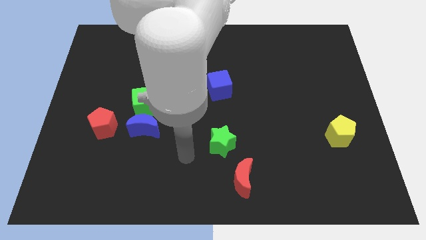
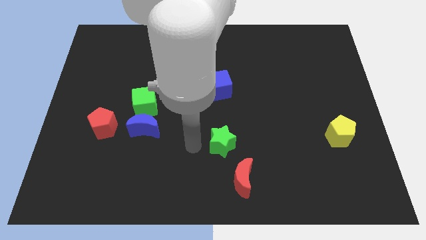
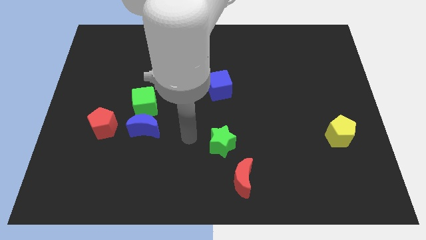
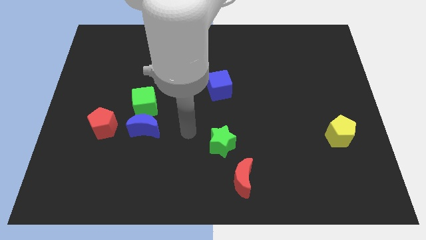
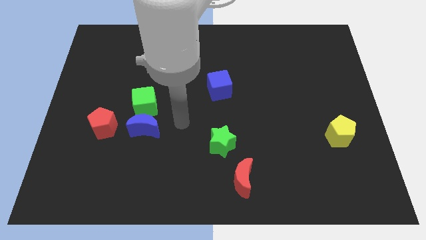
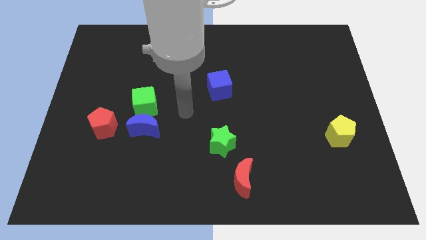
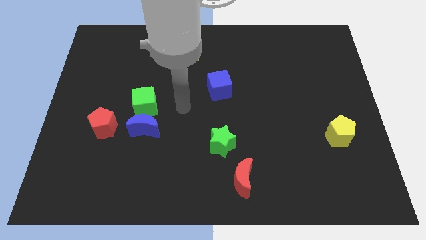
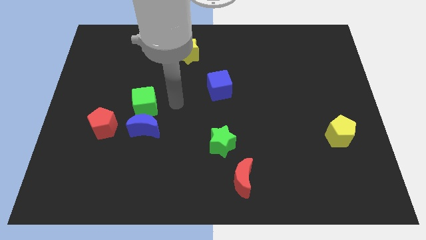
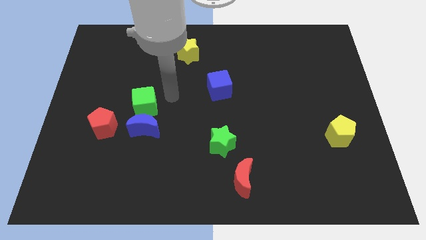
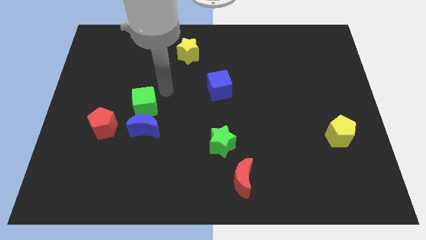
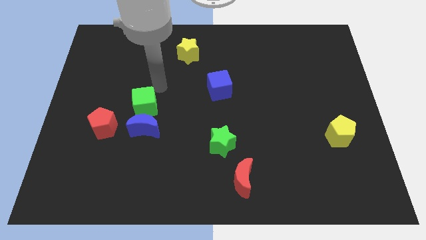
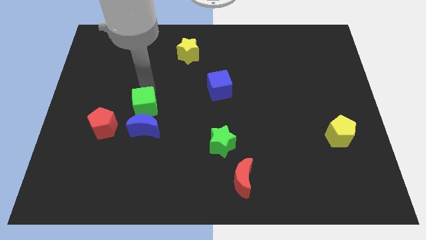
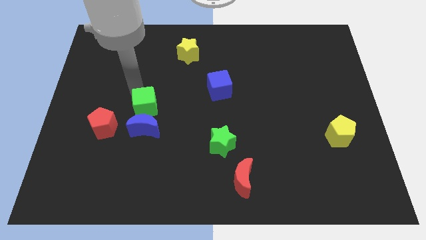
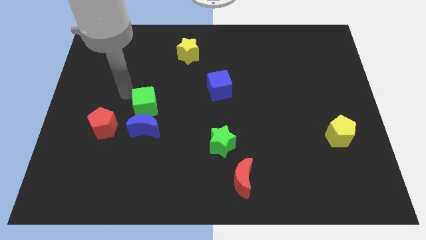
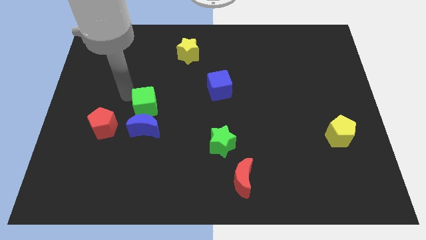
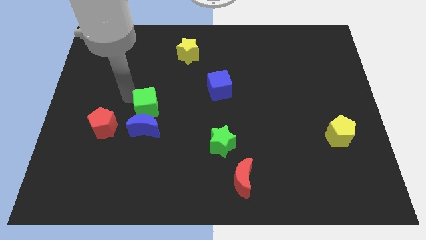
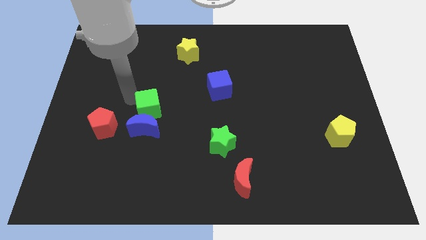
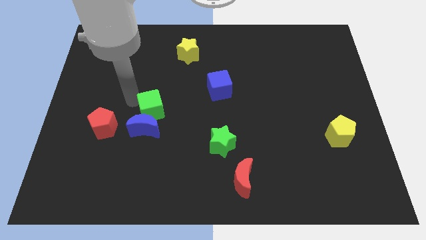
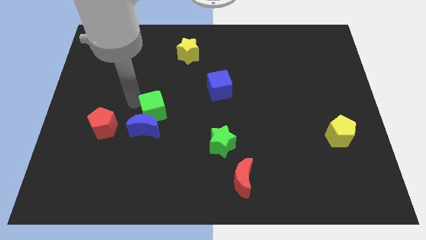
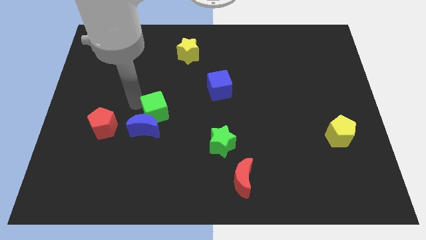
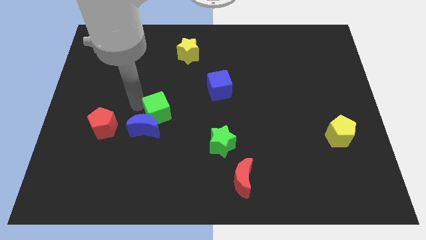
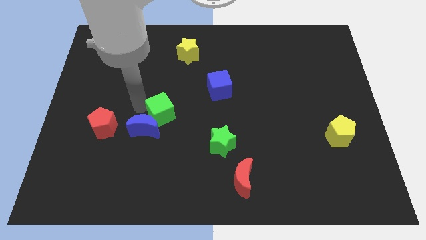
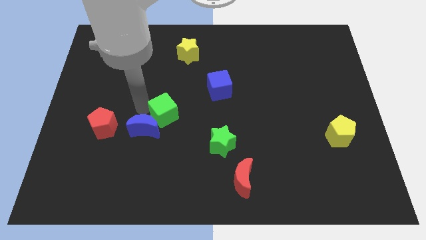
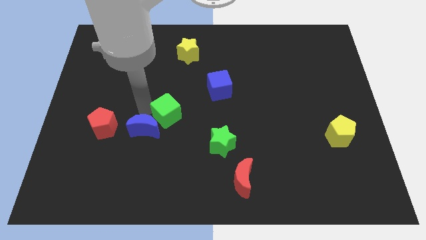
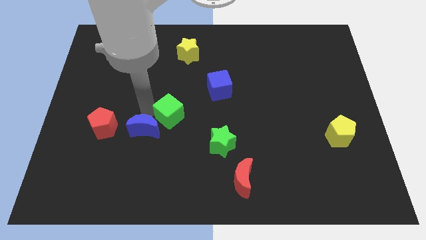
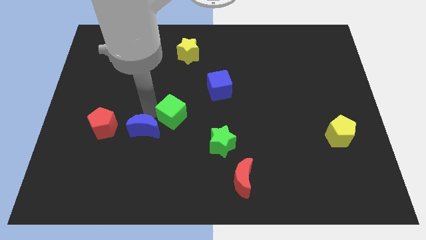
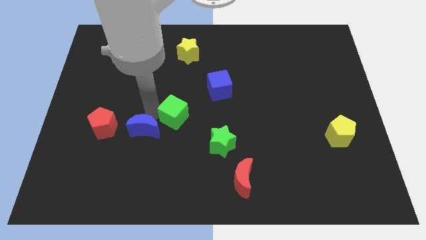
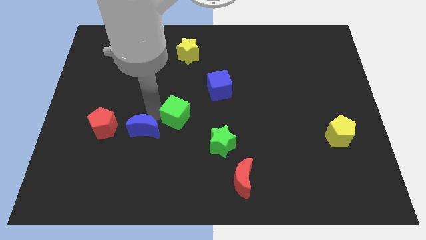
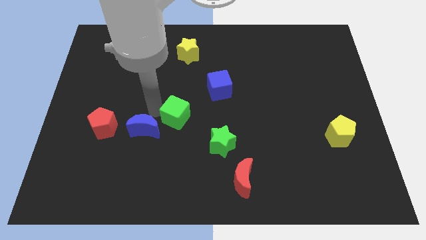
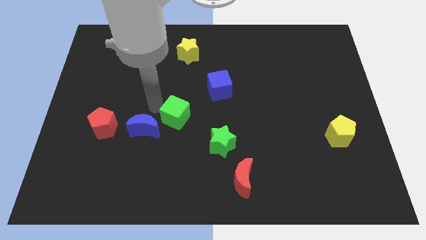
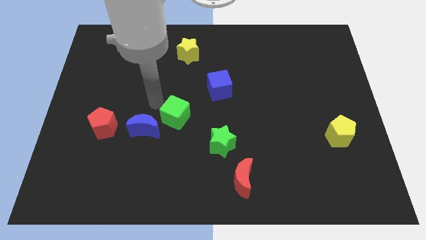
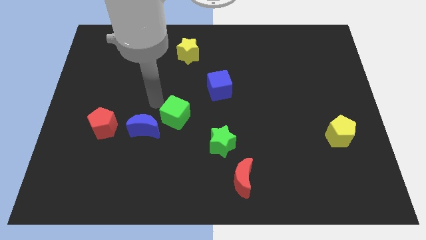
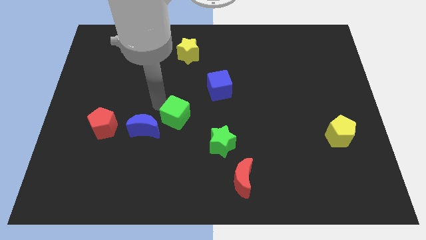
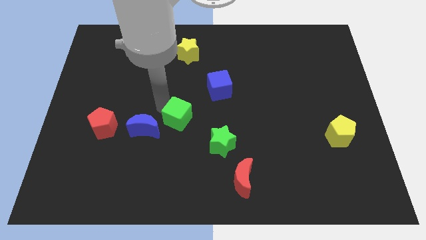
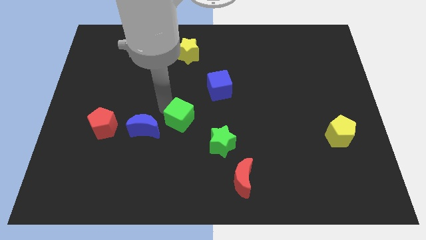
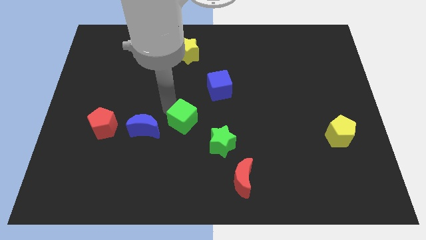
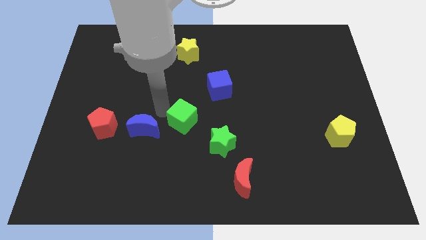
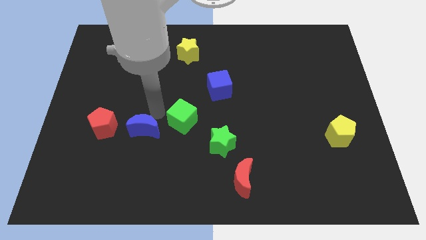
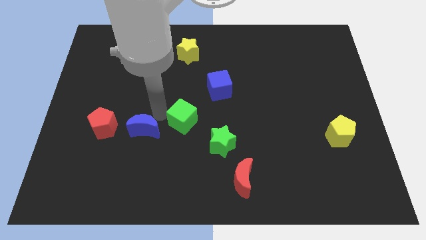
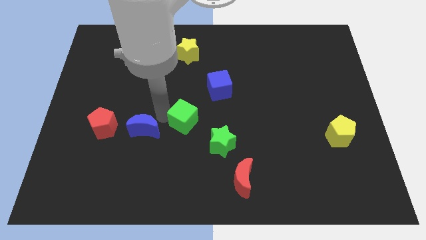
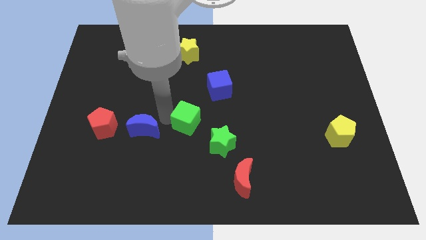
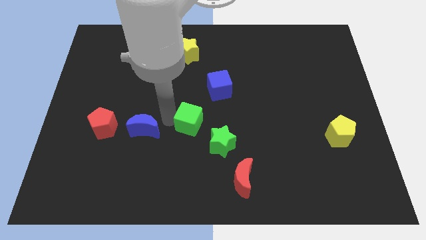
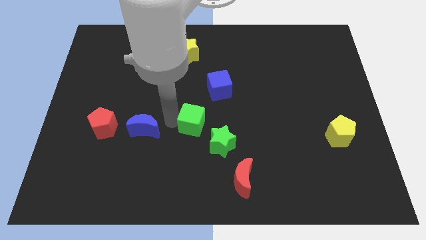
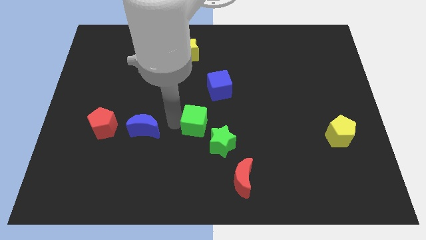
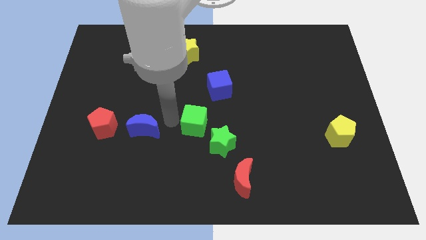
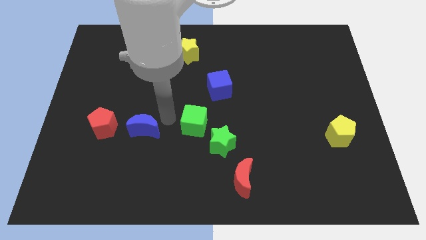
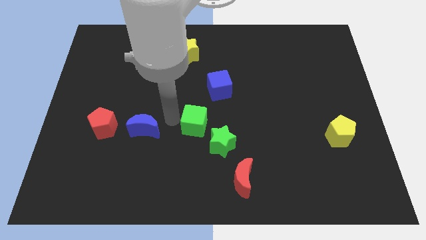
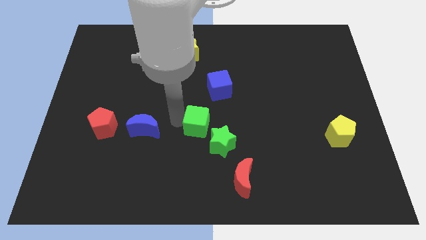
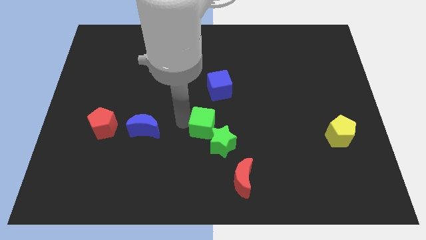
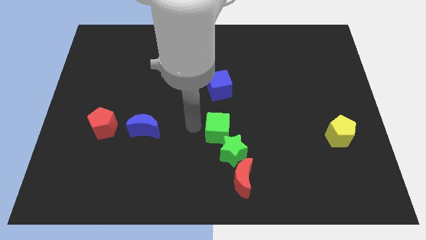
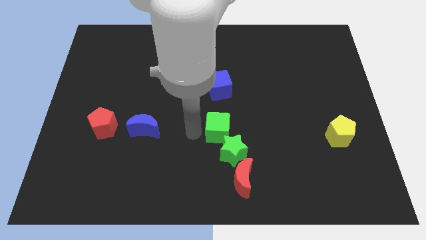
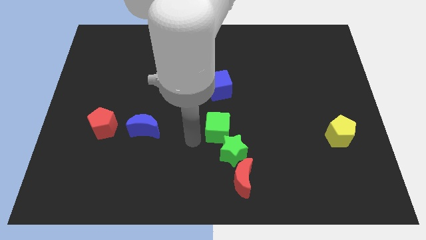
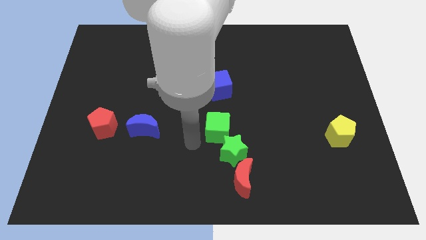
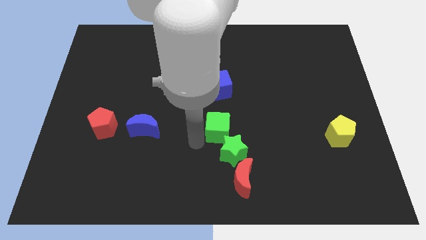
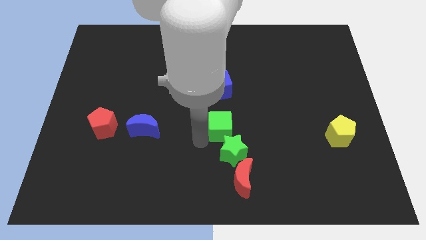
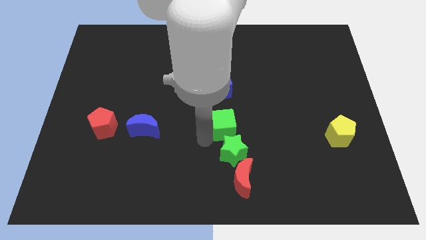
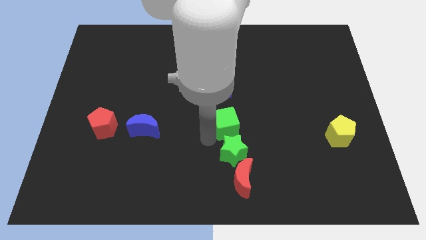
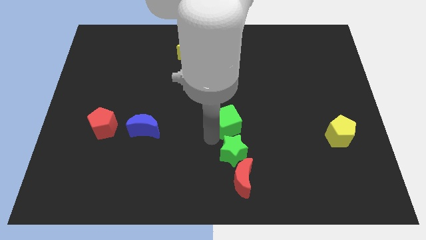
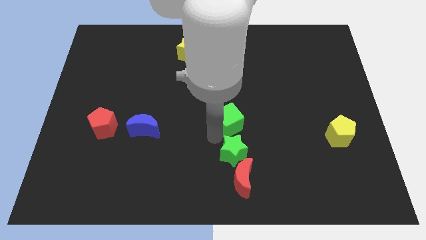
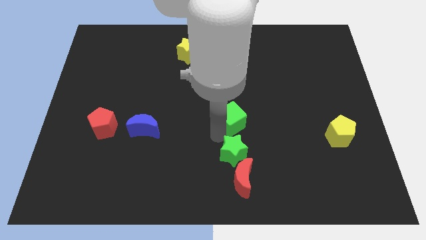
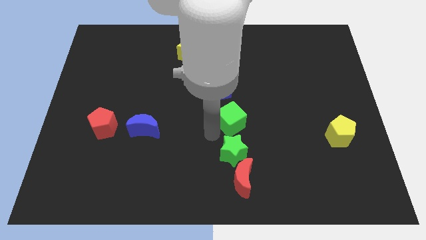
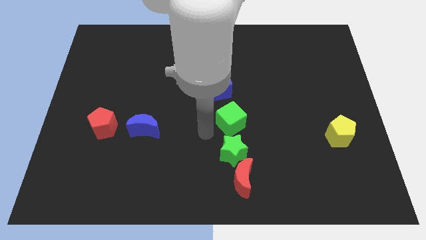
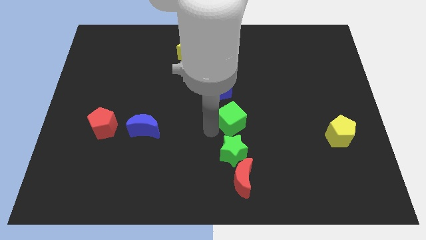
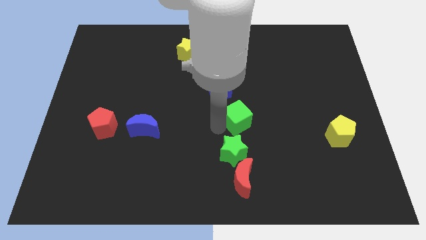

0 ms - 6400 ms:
move the green cube right

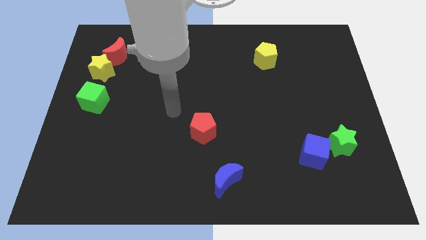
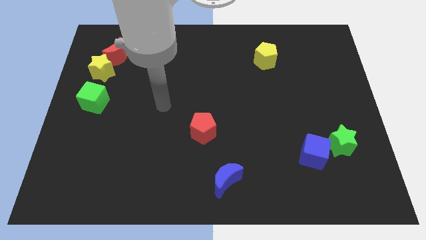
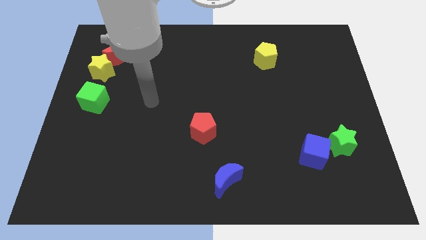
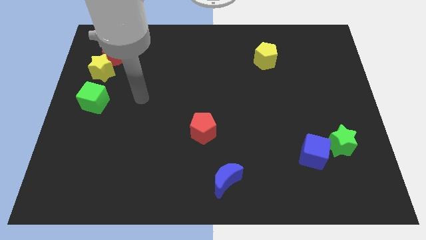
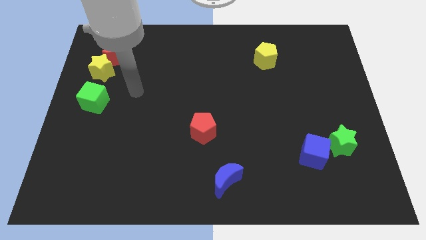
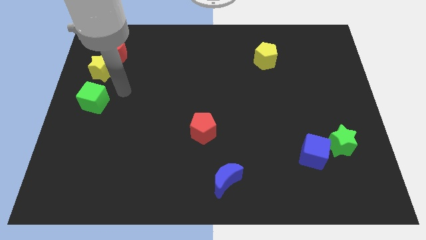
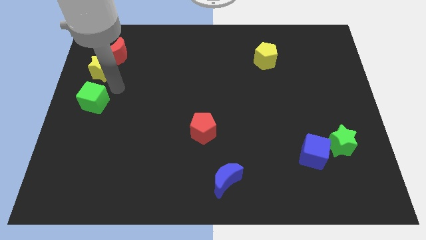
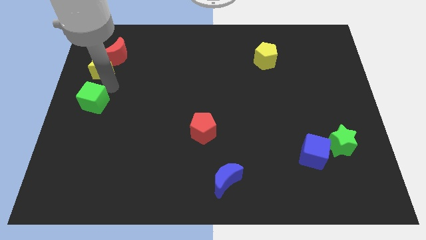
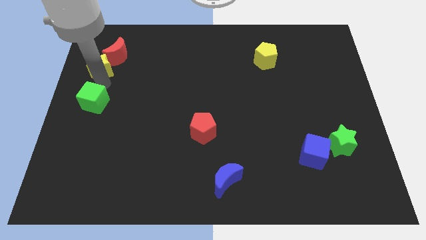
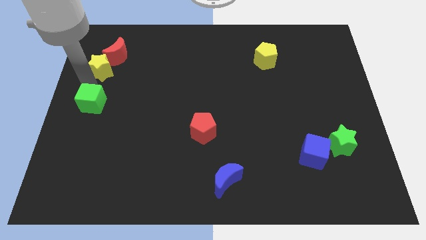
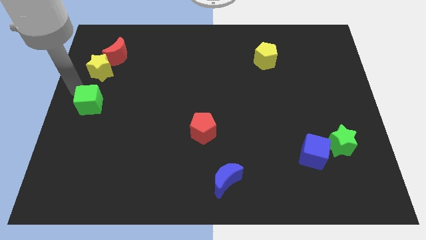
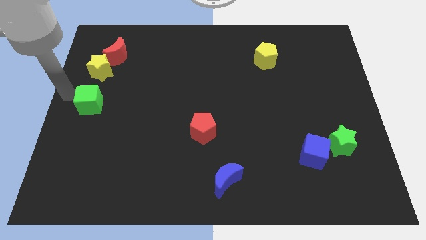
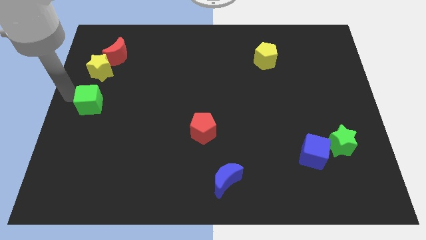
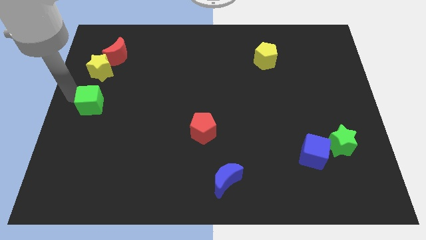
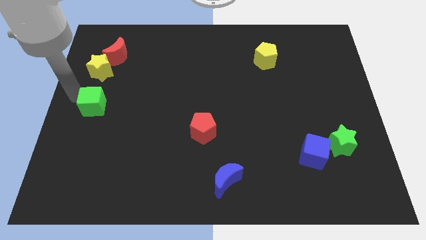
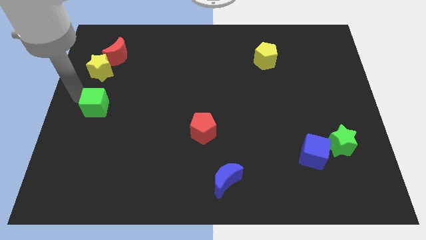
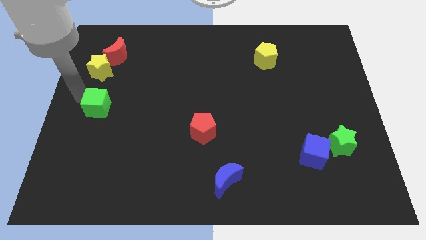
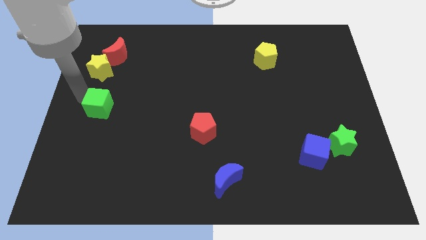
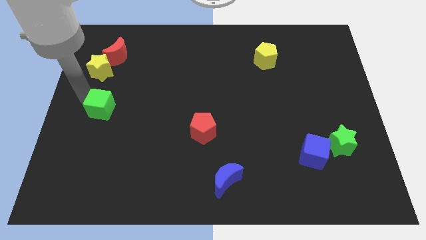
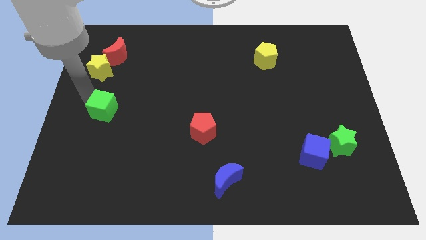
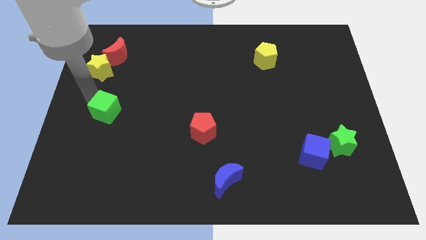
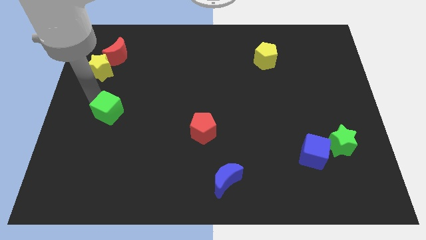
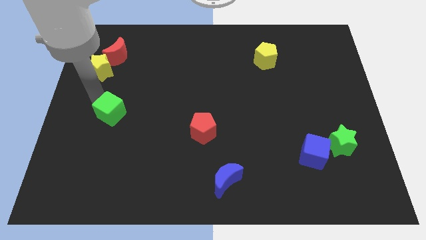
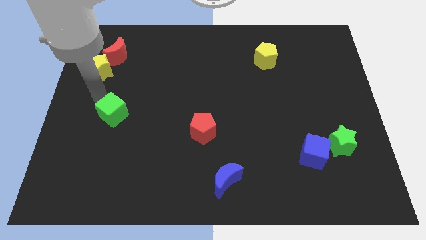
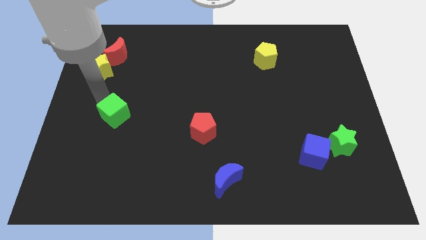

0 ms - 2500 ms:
push the green cube down and then to the right a bit
